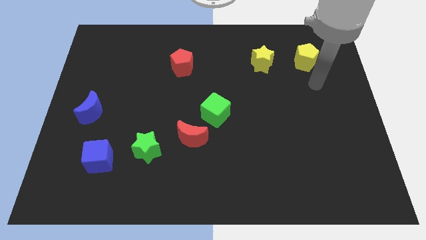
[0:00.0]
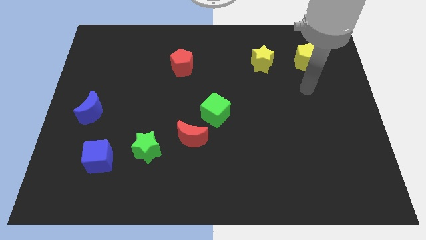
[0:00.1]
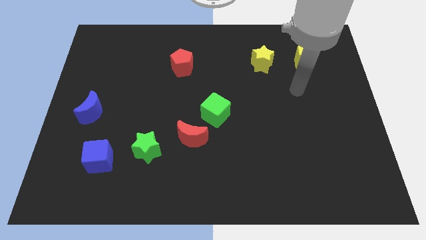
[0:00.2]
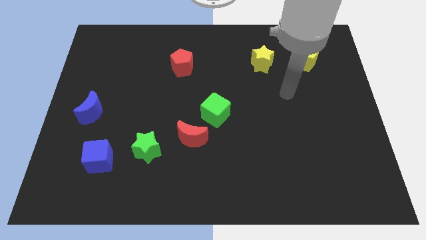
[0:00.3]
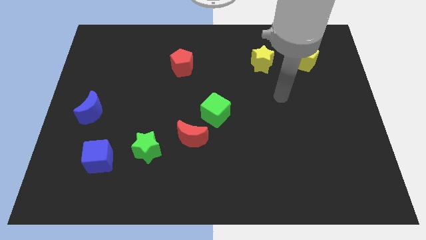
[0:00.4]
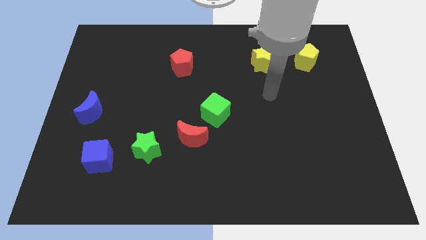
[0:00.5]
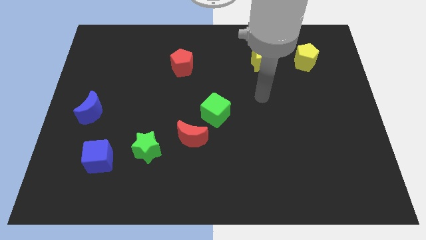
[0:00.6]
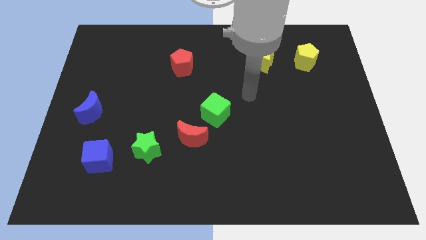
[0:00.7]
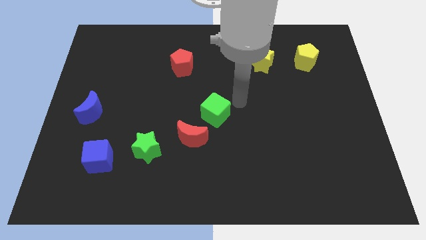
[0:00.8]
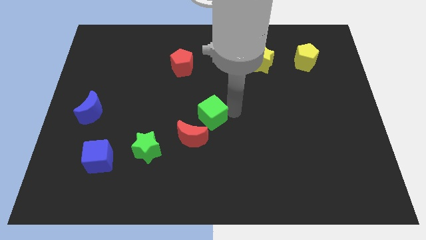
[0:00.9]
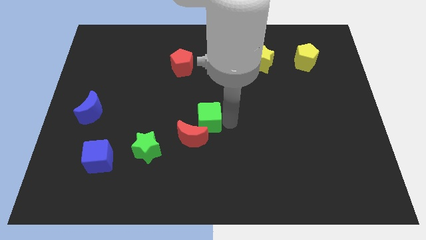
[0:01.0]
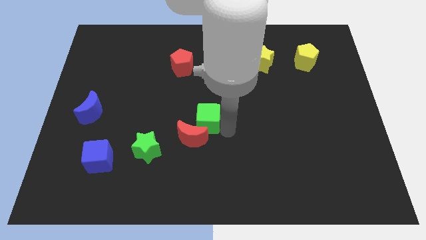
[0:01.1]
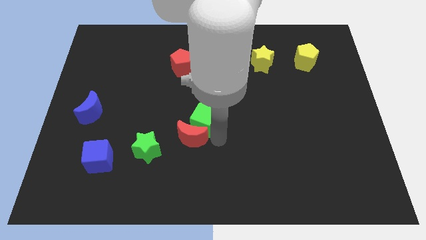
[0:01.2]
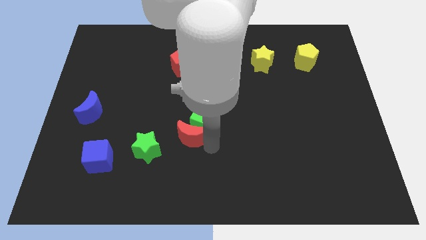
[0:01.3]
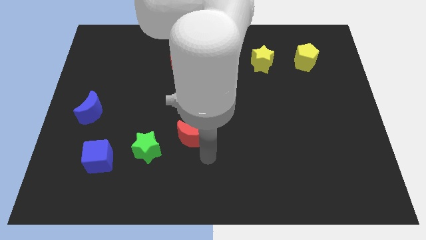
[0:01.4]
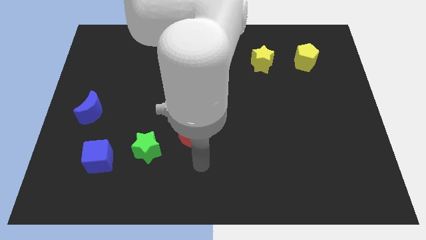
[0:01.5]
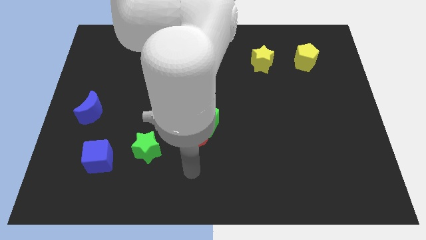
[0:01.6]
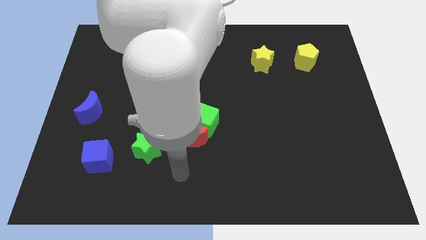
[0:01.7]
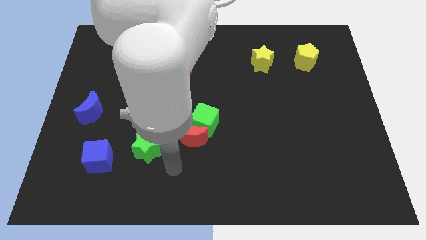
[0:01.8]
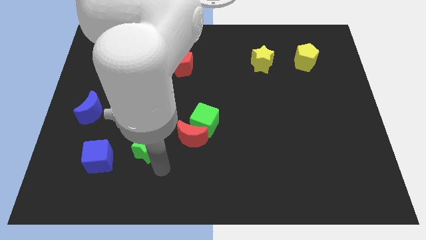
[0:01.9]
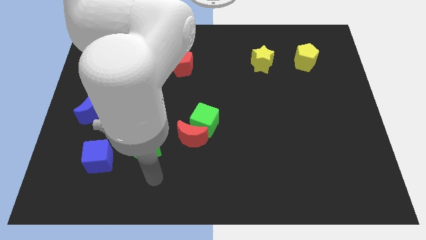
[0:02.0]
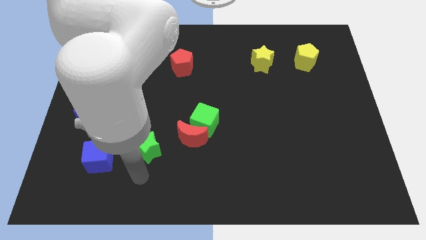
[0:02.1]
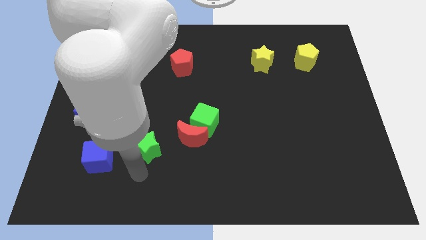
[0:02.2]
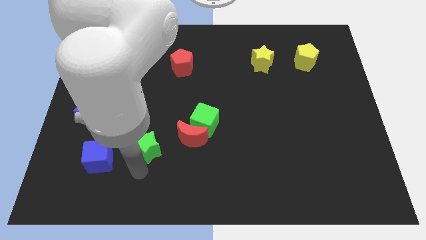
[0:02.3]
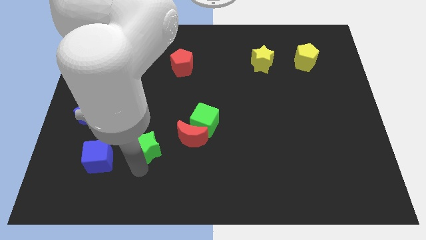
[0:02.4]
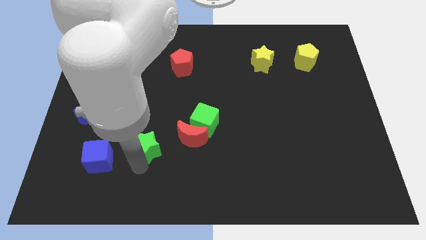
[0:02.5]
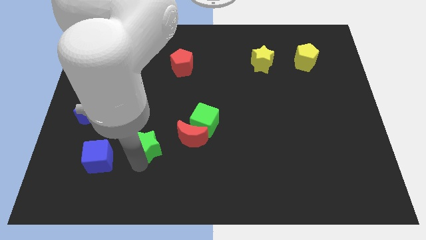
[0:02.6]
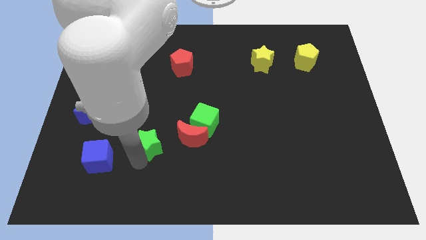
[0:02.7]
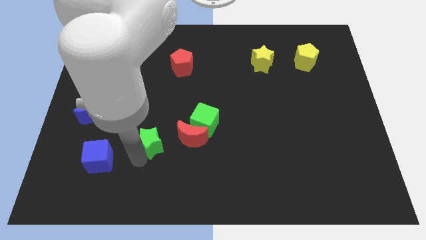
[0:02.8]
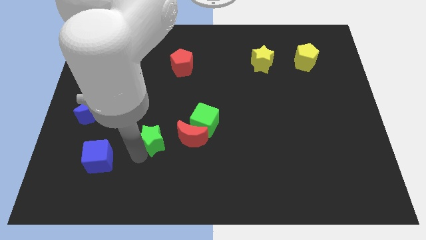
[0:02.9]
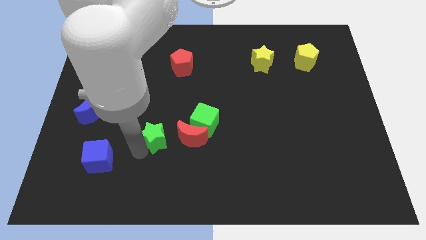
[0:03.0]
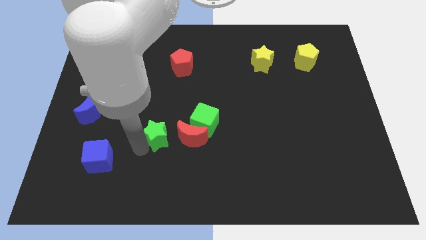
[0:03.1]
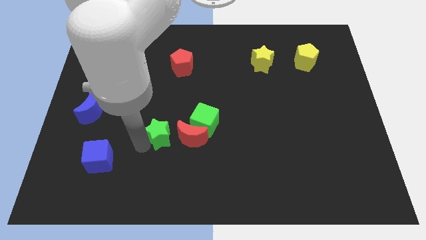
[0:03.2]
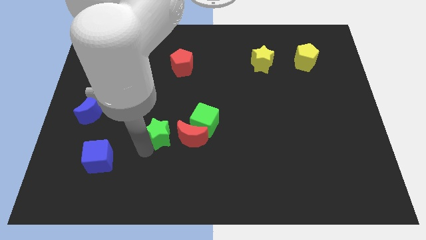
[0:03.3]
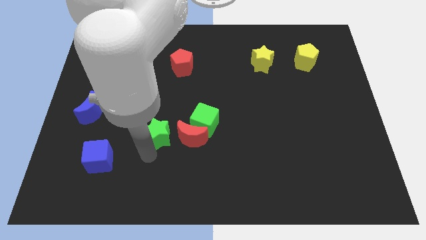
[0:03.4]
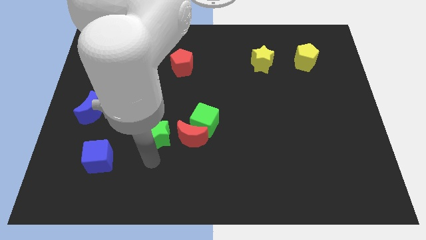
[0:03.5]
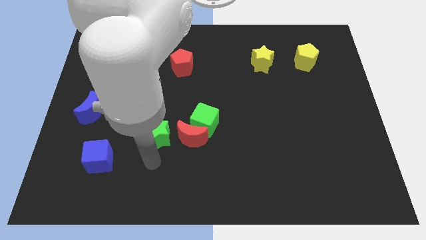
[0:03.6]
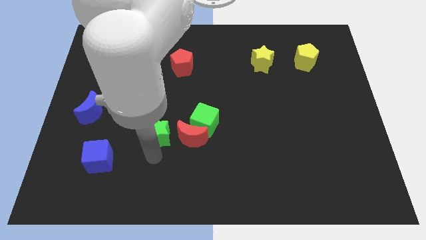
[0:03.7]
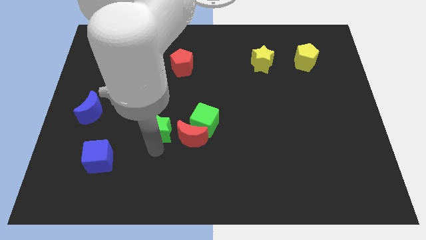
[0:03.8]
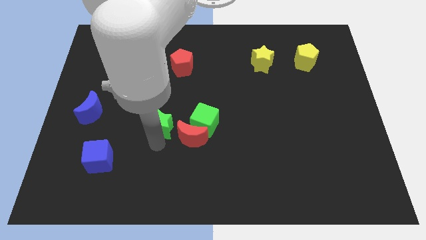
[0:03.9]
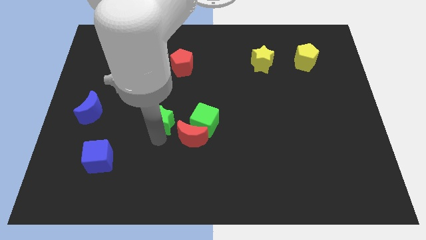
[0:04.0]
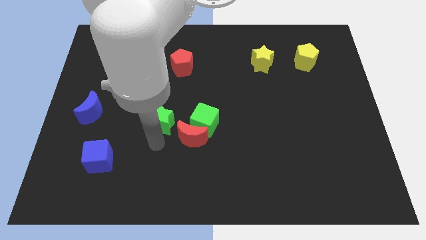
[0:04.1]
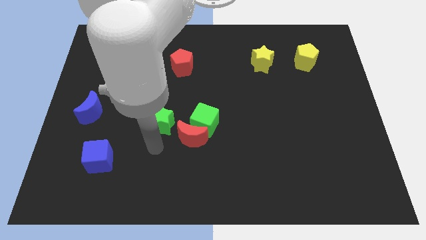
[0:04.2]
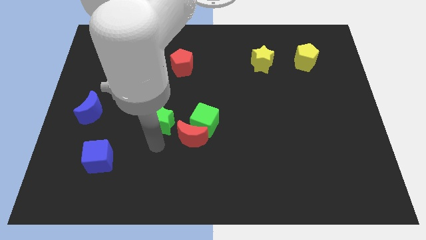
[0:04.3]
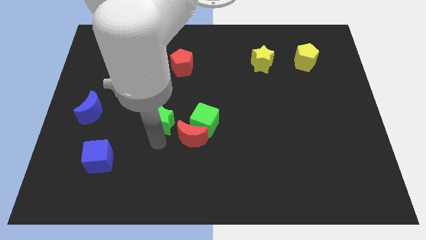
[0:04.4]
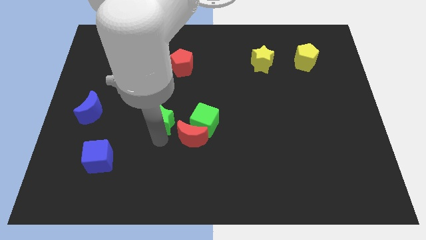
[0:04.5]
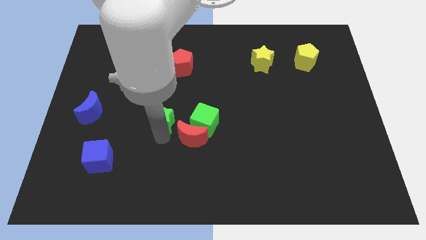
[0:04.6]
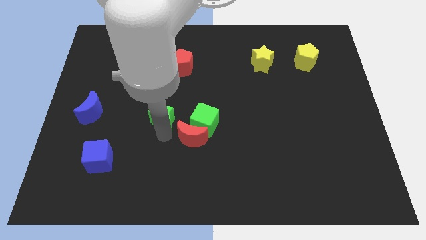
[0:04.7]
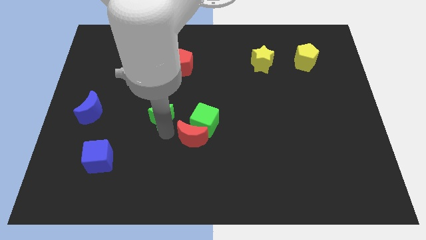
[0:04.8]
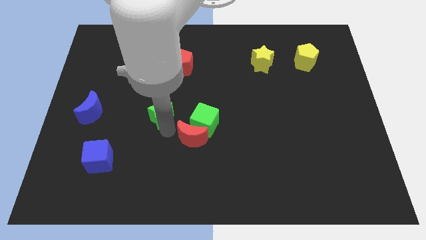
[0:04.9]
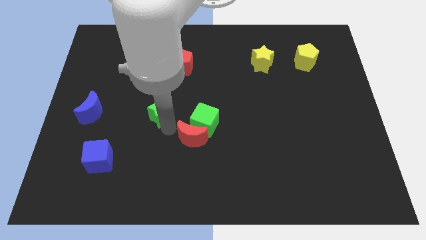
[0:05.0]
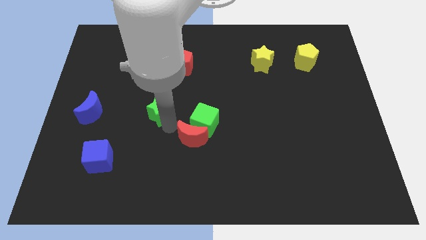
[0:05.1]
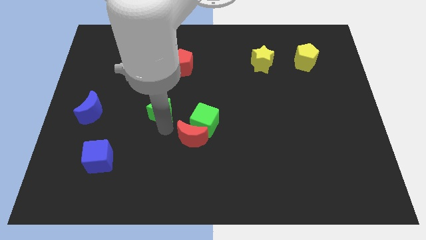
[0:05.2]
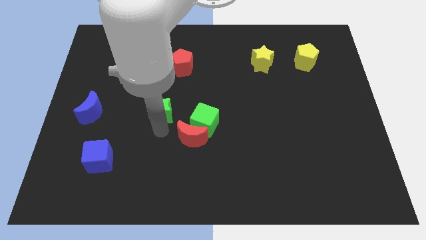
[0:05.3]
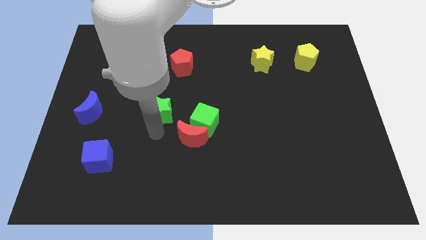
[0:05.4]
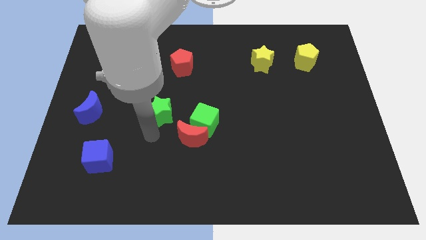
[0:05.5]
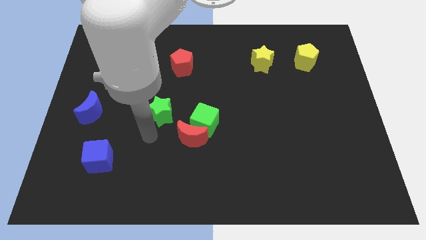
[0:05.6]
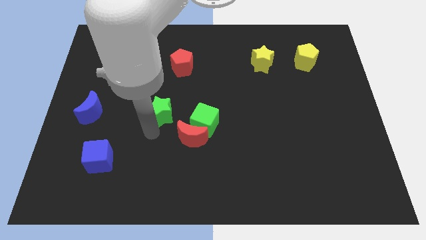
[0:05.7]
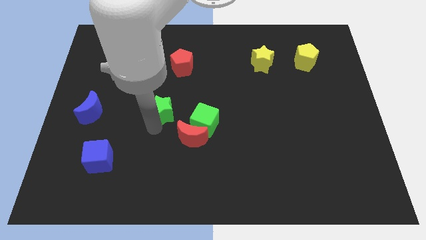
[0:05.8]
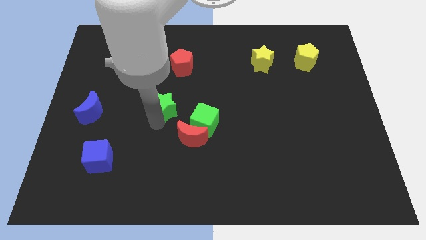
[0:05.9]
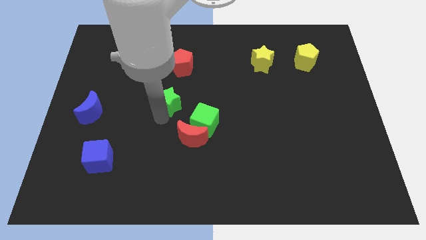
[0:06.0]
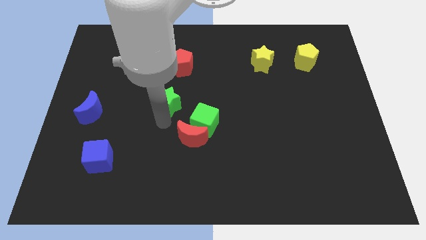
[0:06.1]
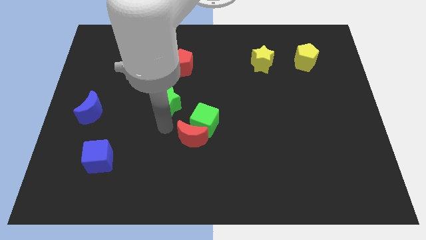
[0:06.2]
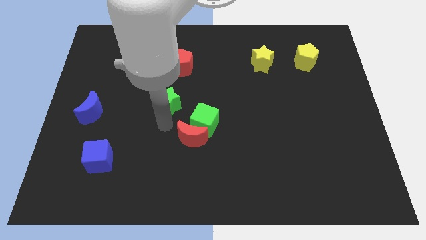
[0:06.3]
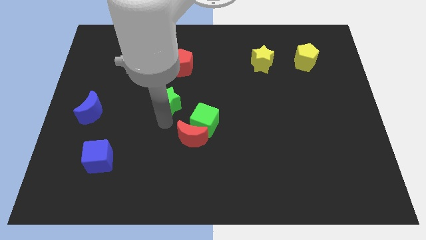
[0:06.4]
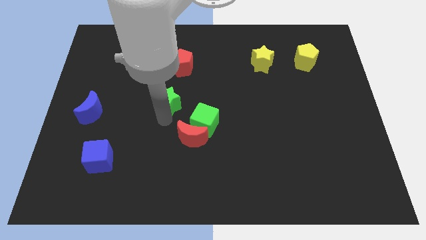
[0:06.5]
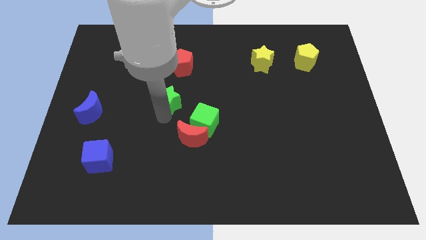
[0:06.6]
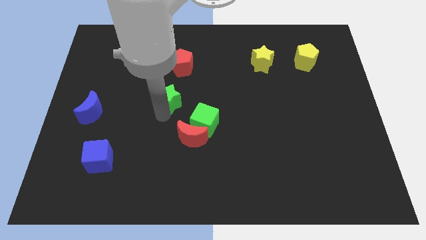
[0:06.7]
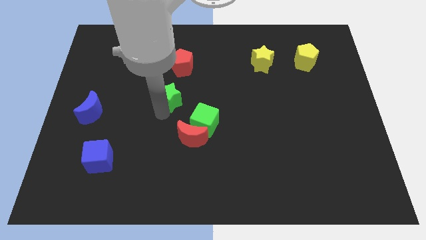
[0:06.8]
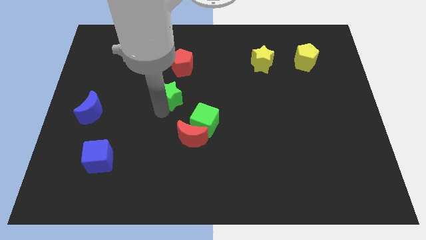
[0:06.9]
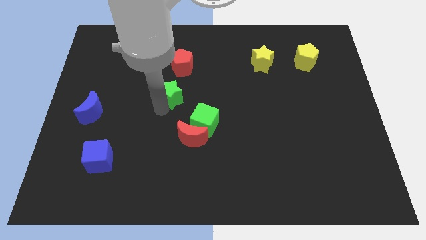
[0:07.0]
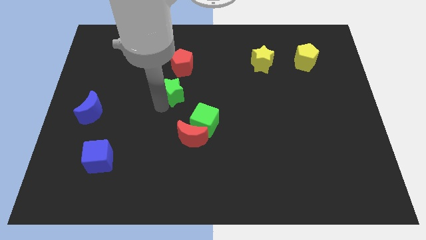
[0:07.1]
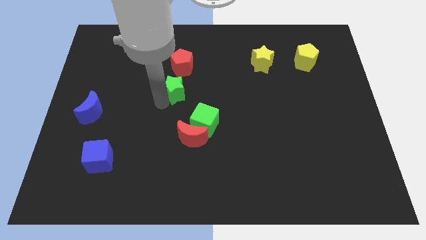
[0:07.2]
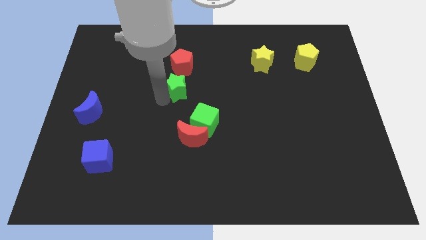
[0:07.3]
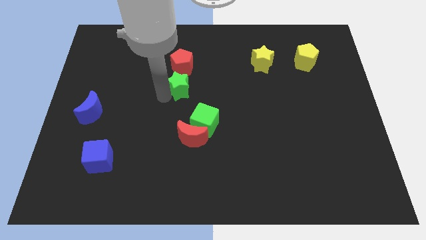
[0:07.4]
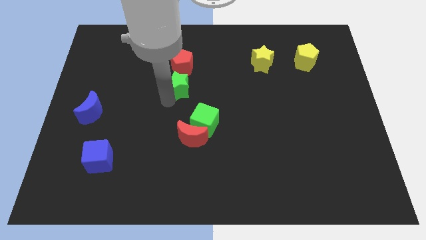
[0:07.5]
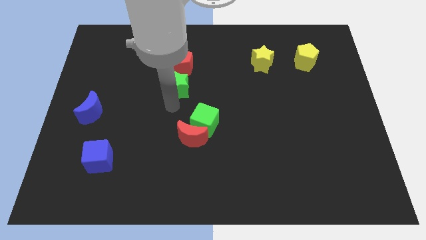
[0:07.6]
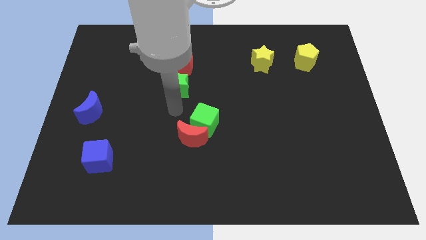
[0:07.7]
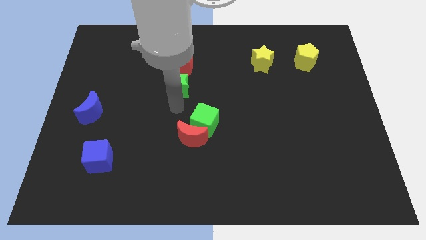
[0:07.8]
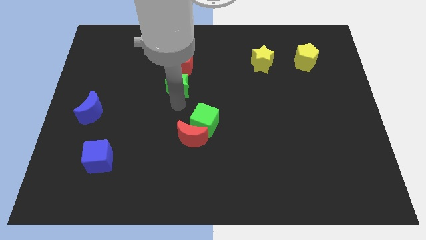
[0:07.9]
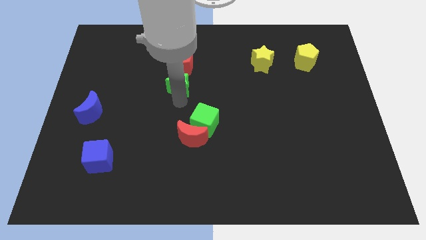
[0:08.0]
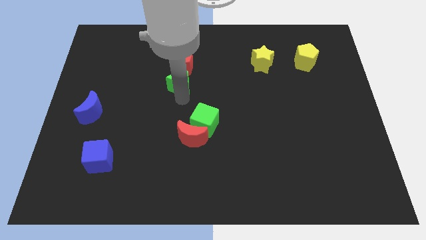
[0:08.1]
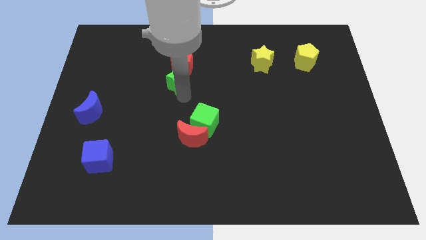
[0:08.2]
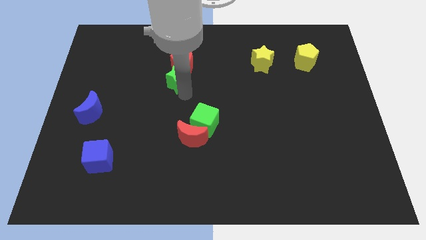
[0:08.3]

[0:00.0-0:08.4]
put the green star to the red pentagon
